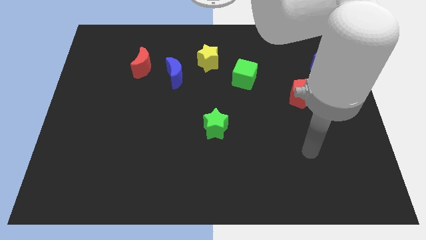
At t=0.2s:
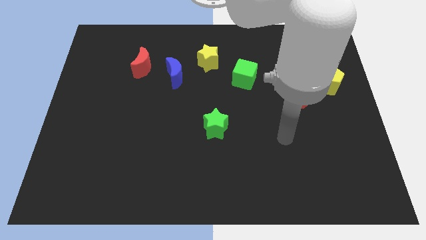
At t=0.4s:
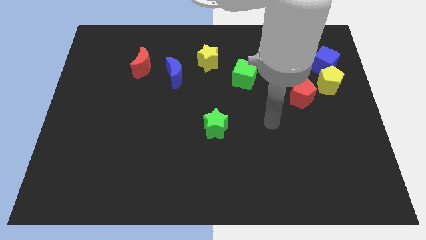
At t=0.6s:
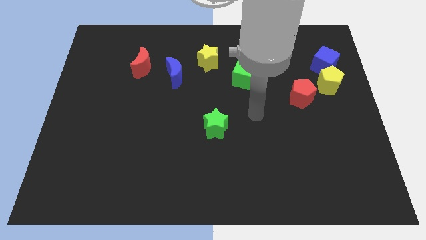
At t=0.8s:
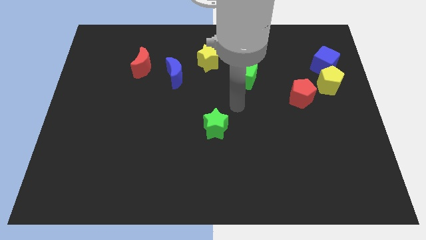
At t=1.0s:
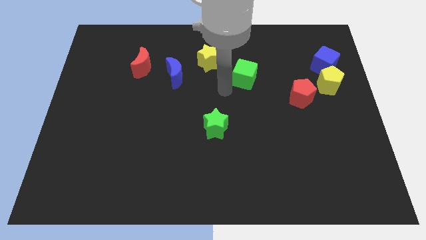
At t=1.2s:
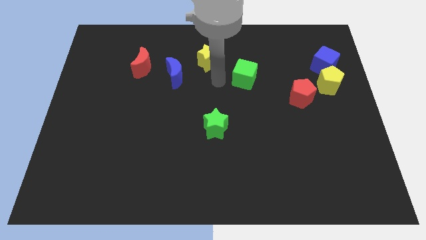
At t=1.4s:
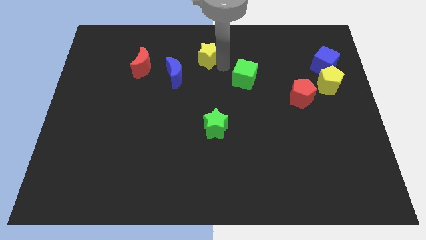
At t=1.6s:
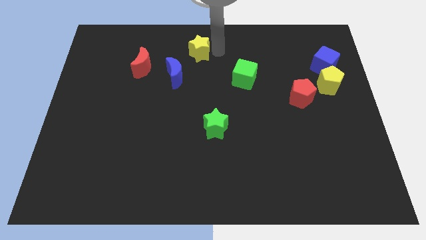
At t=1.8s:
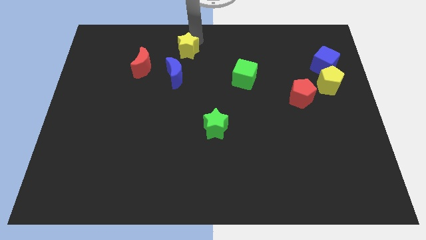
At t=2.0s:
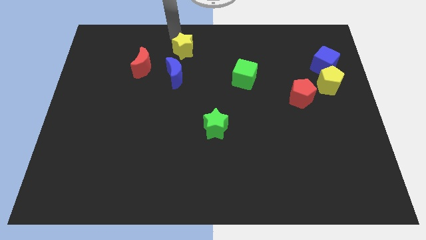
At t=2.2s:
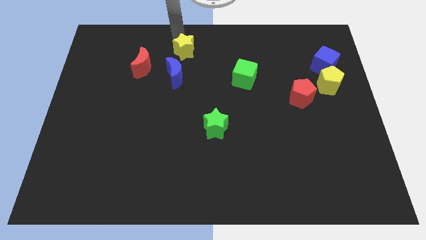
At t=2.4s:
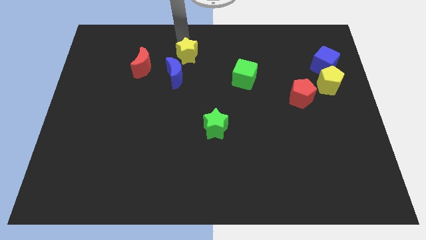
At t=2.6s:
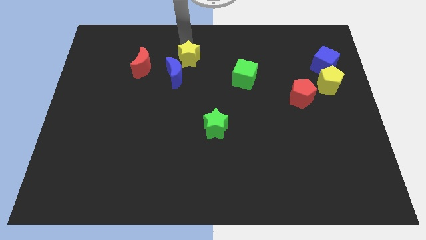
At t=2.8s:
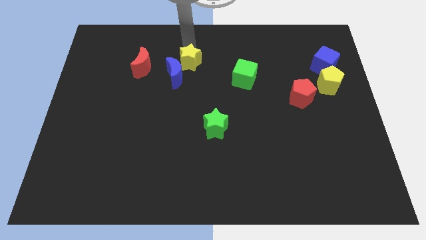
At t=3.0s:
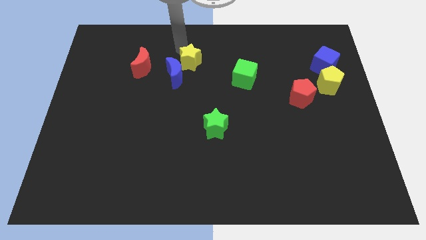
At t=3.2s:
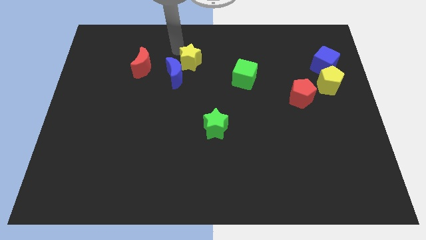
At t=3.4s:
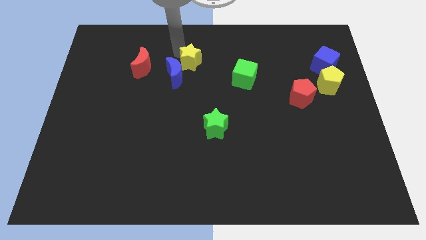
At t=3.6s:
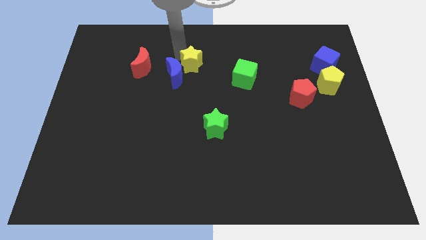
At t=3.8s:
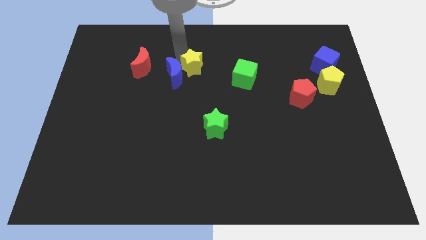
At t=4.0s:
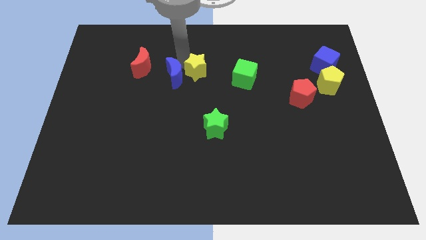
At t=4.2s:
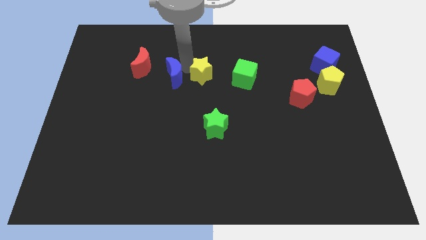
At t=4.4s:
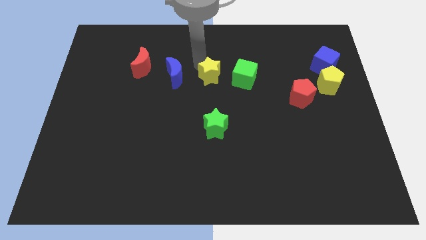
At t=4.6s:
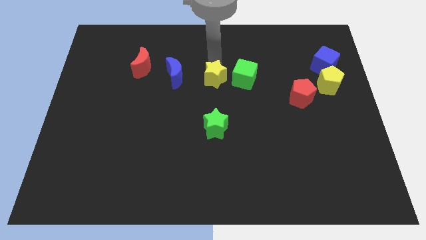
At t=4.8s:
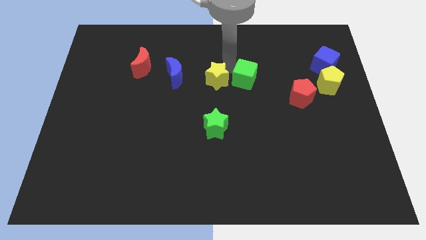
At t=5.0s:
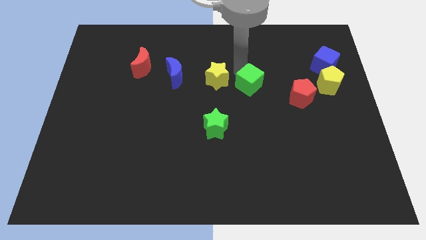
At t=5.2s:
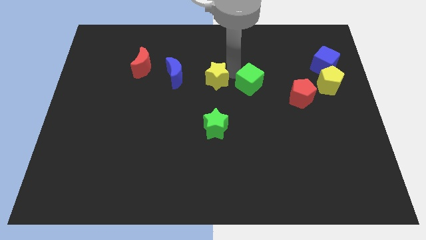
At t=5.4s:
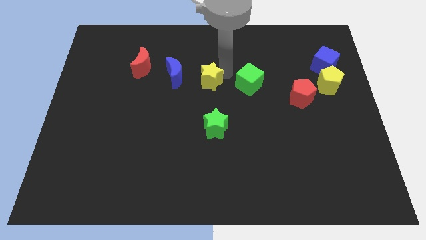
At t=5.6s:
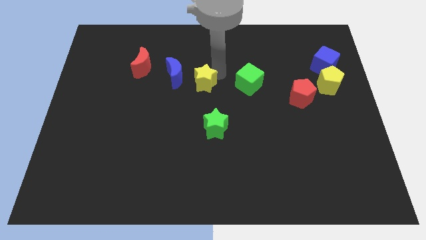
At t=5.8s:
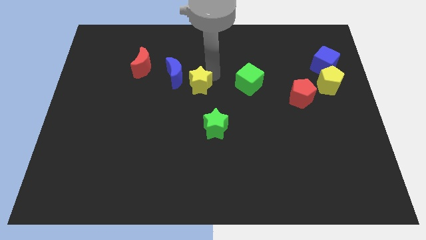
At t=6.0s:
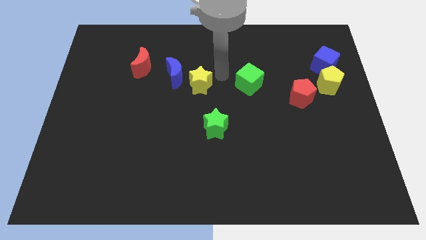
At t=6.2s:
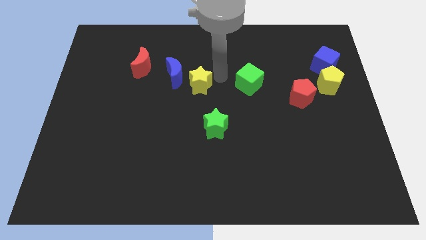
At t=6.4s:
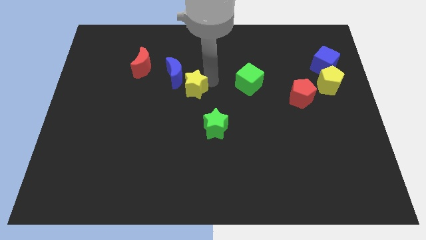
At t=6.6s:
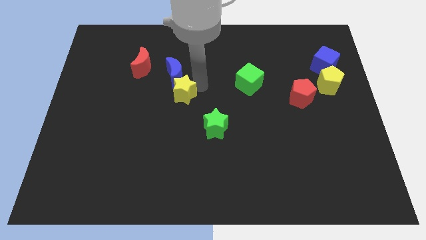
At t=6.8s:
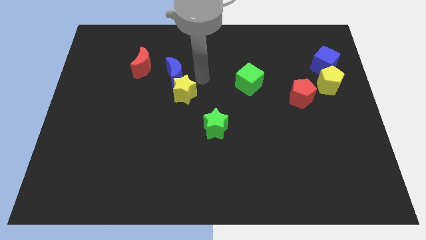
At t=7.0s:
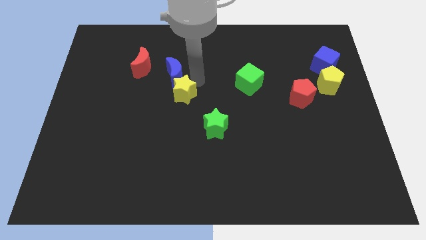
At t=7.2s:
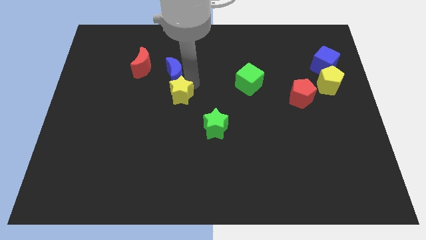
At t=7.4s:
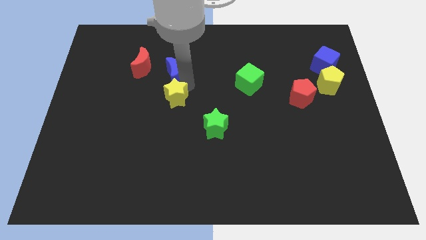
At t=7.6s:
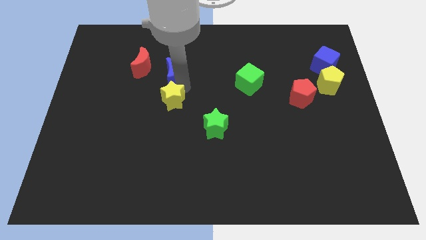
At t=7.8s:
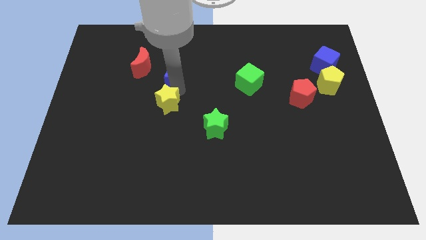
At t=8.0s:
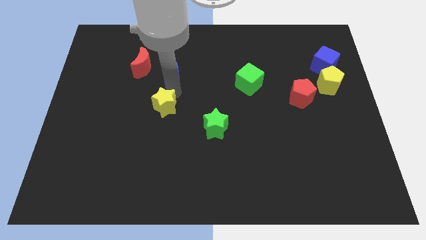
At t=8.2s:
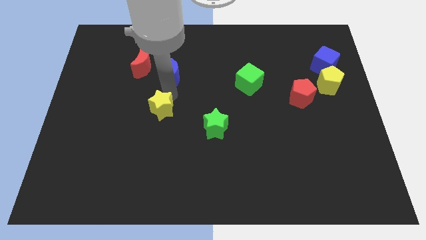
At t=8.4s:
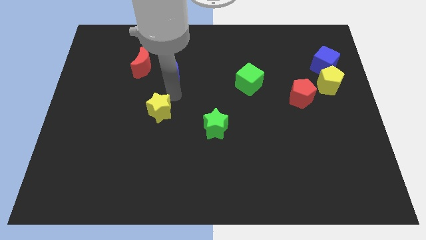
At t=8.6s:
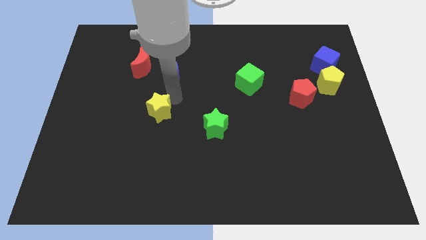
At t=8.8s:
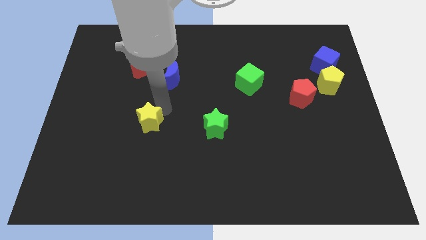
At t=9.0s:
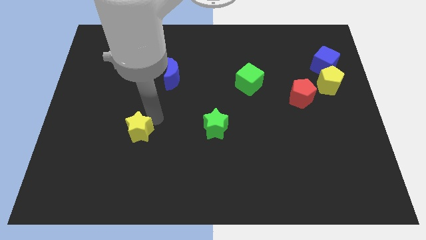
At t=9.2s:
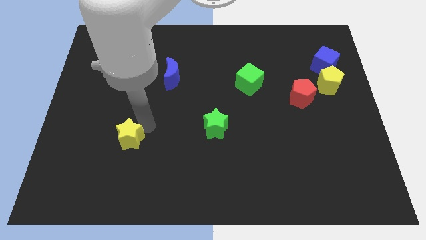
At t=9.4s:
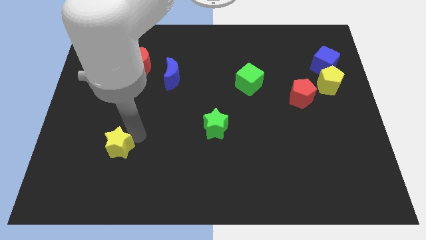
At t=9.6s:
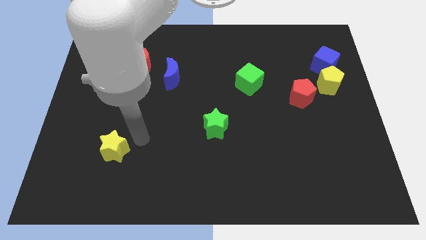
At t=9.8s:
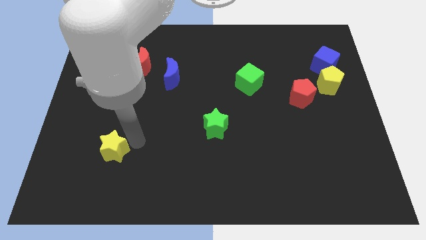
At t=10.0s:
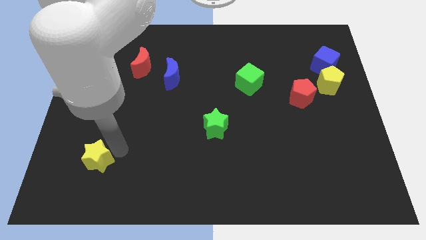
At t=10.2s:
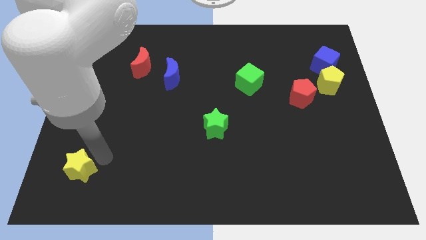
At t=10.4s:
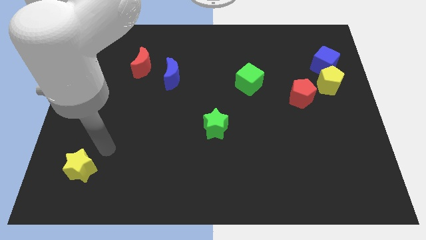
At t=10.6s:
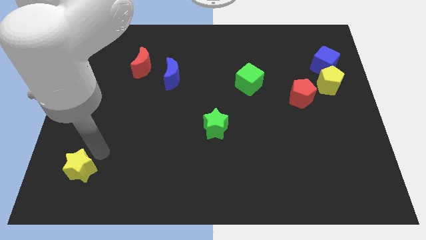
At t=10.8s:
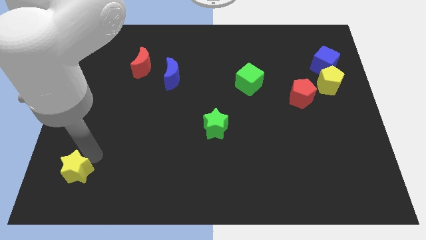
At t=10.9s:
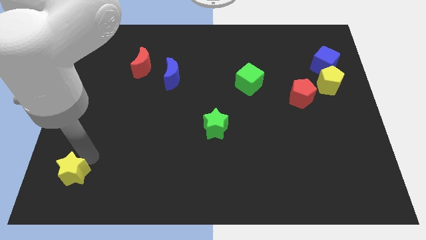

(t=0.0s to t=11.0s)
push the yellow star to the lower left corner

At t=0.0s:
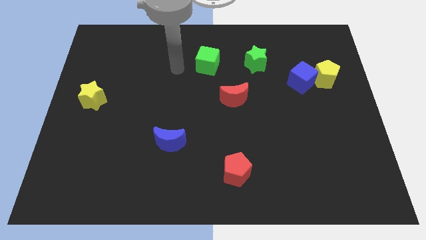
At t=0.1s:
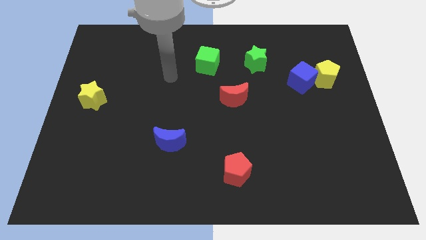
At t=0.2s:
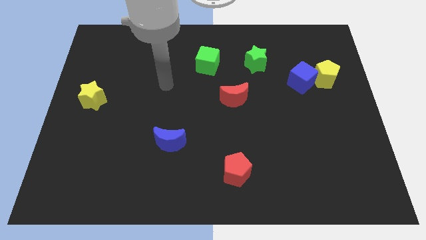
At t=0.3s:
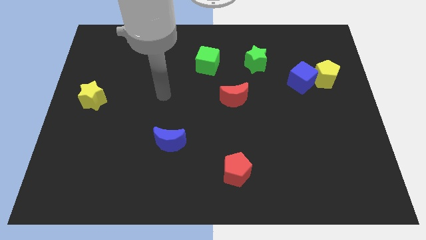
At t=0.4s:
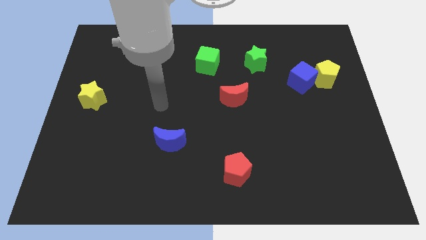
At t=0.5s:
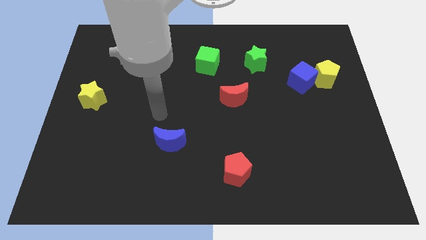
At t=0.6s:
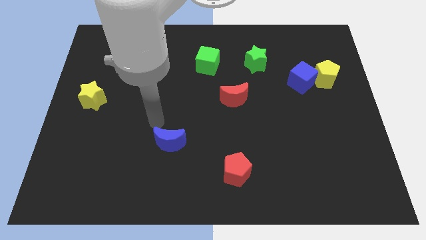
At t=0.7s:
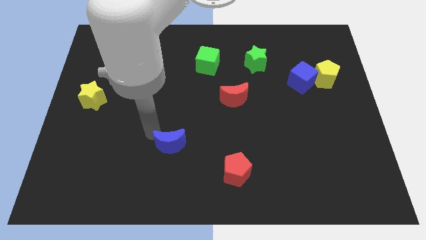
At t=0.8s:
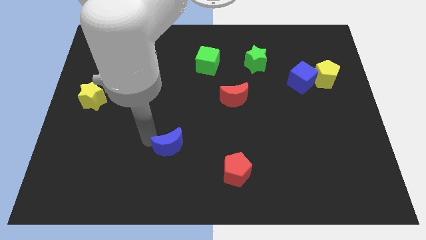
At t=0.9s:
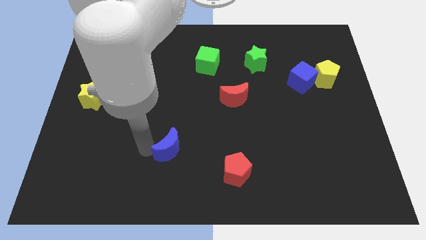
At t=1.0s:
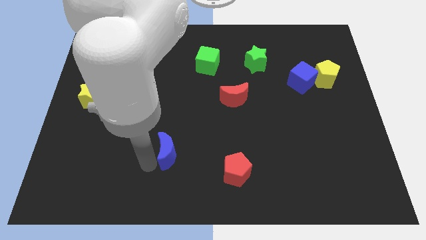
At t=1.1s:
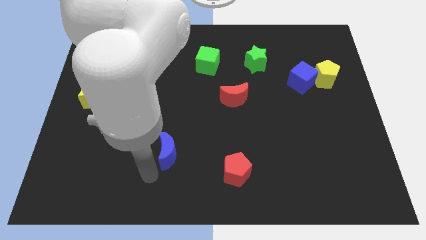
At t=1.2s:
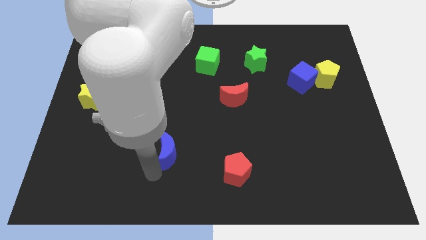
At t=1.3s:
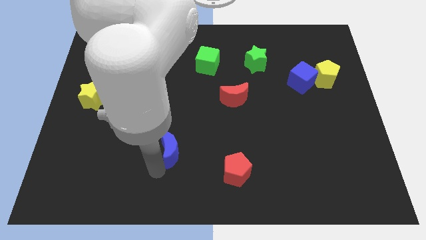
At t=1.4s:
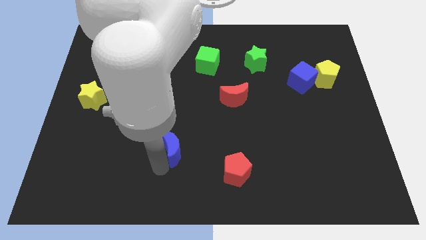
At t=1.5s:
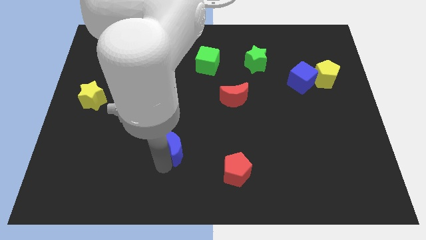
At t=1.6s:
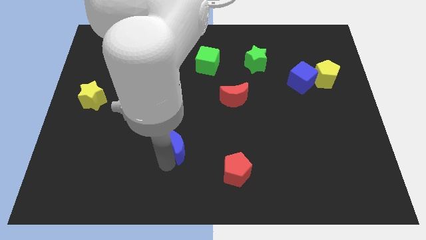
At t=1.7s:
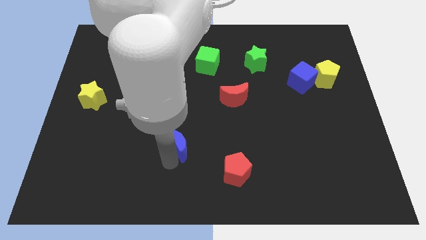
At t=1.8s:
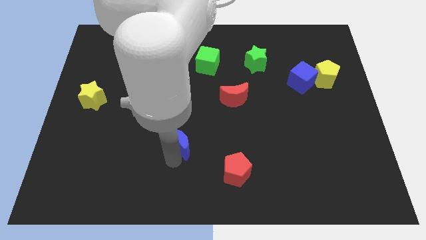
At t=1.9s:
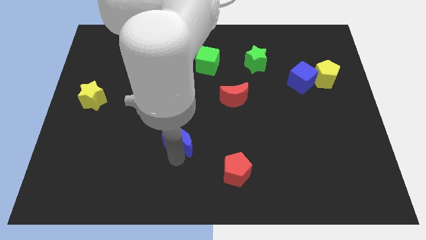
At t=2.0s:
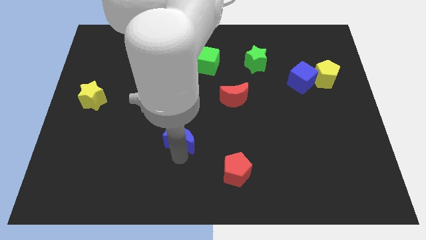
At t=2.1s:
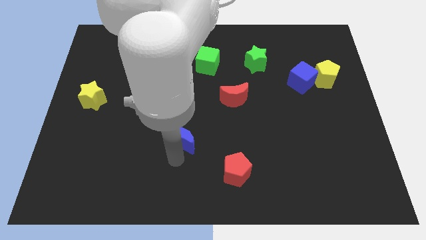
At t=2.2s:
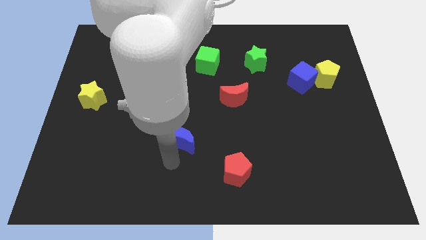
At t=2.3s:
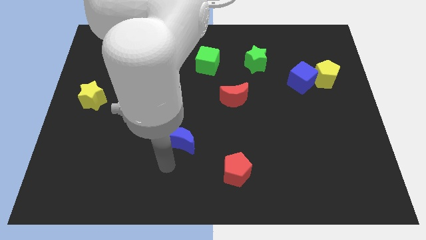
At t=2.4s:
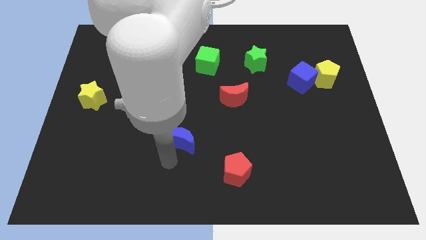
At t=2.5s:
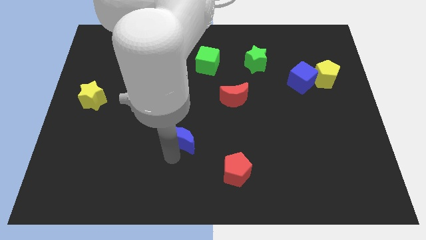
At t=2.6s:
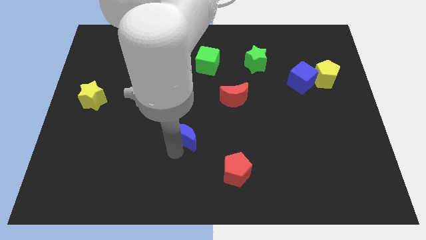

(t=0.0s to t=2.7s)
slide the blue moon to the center
